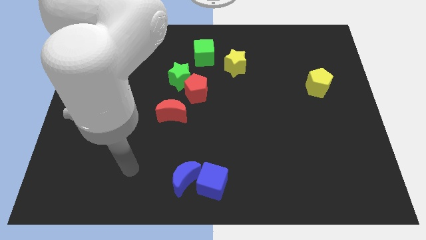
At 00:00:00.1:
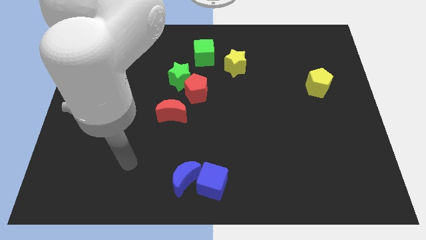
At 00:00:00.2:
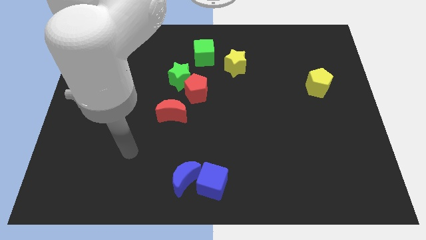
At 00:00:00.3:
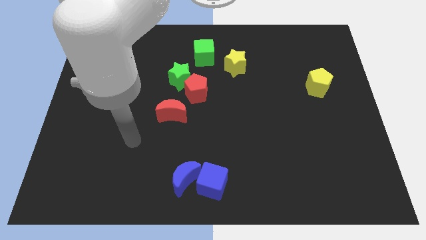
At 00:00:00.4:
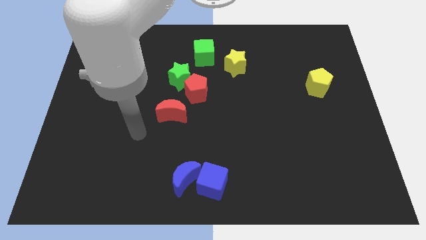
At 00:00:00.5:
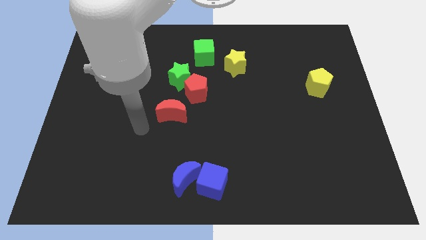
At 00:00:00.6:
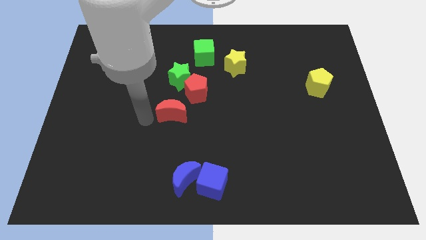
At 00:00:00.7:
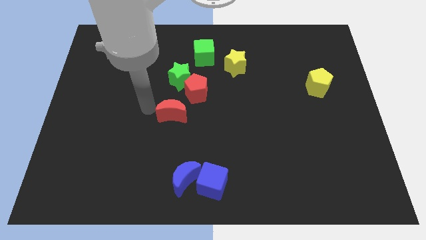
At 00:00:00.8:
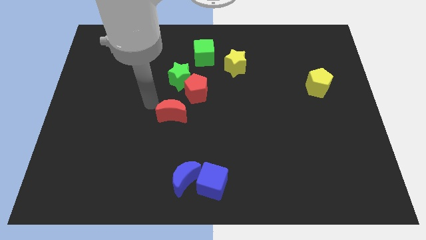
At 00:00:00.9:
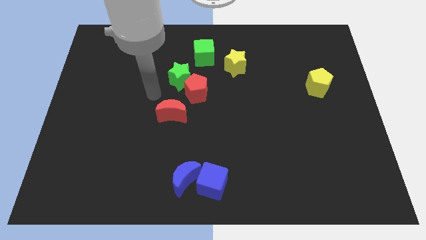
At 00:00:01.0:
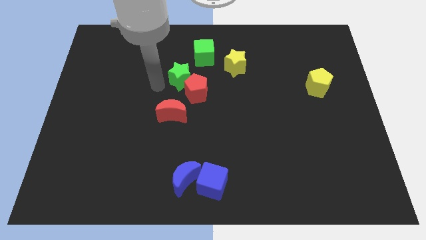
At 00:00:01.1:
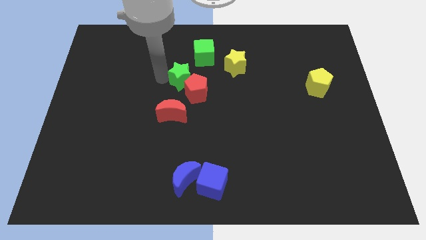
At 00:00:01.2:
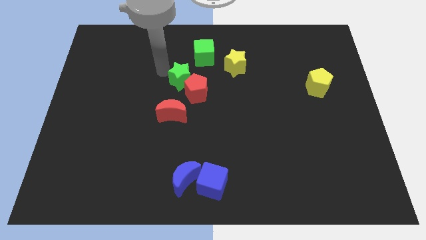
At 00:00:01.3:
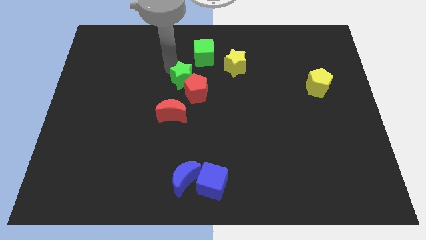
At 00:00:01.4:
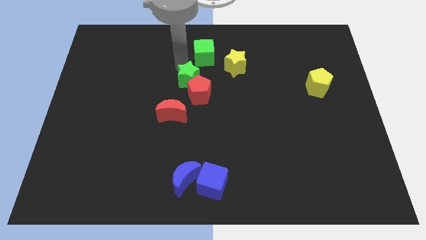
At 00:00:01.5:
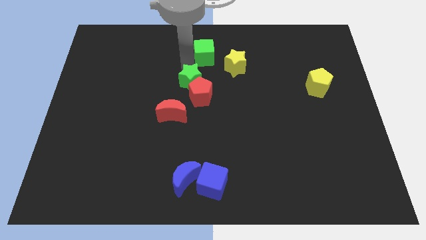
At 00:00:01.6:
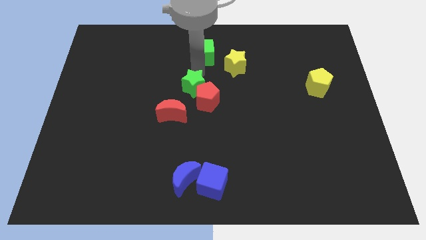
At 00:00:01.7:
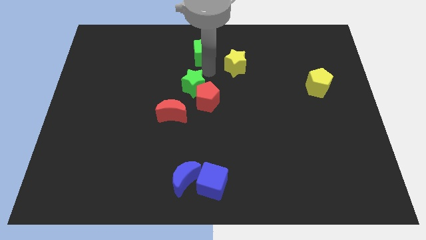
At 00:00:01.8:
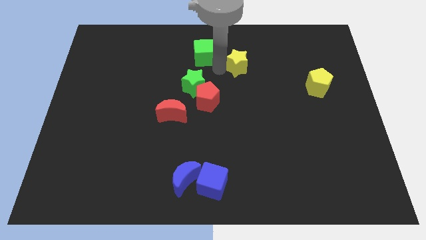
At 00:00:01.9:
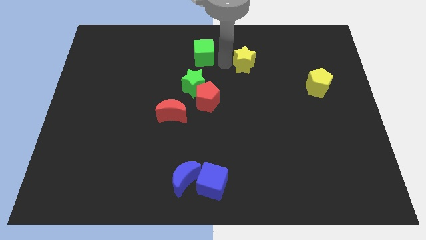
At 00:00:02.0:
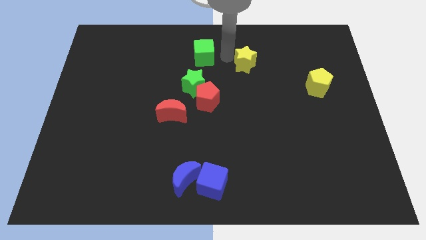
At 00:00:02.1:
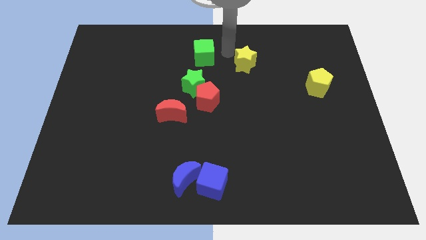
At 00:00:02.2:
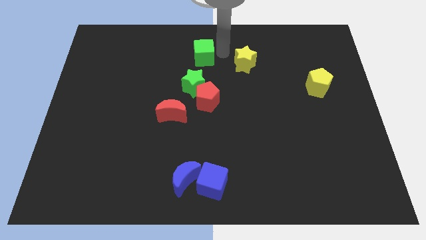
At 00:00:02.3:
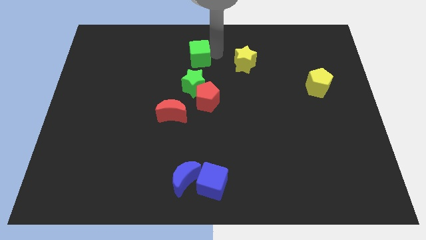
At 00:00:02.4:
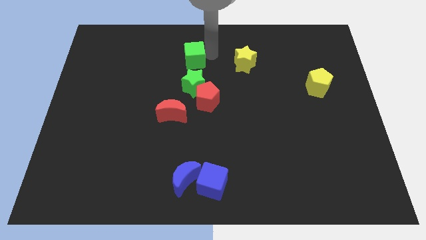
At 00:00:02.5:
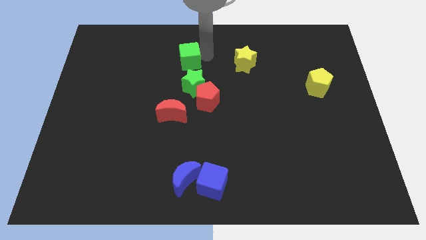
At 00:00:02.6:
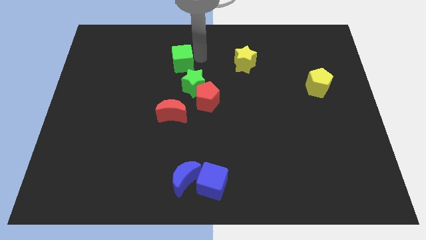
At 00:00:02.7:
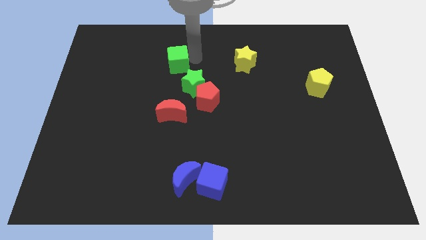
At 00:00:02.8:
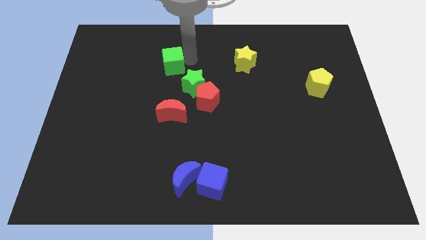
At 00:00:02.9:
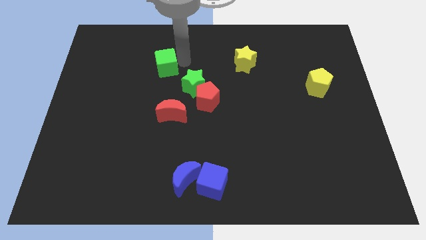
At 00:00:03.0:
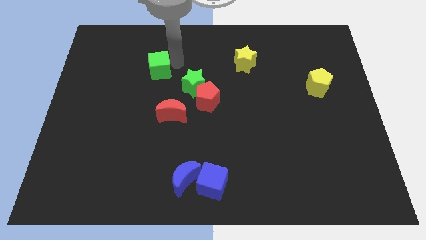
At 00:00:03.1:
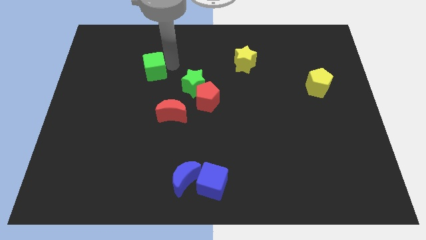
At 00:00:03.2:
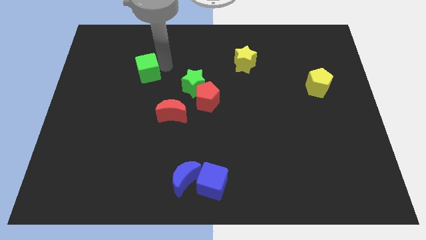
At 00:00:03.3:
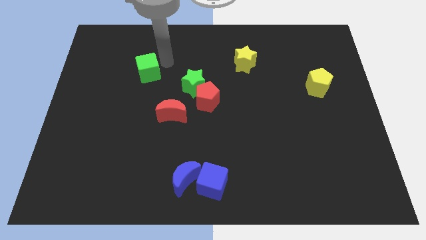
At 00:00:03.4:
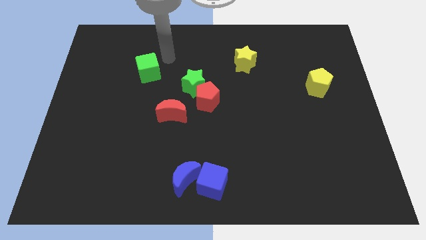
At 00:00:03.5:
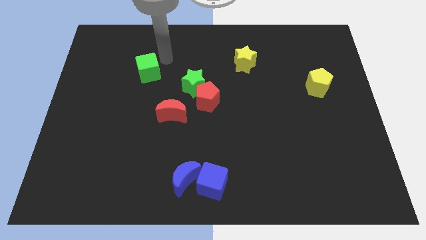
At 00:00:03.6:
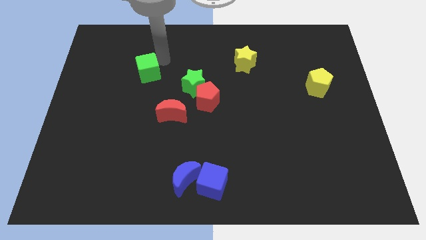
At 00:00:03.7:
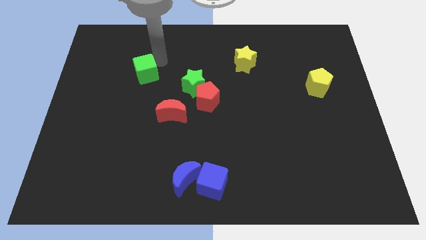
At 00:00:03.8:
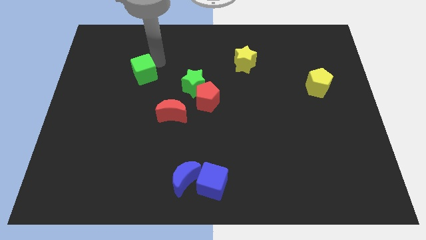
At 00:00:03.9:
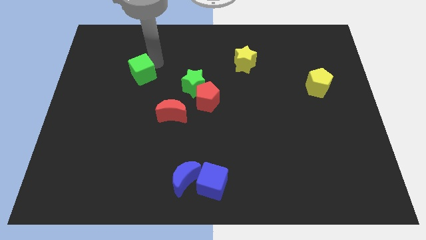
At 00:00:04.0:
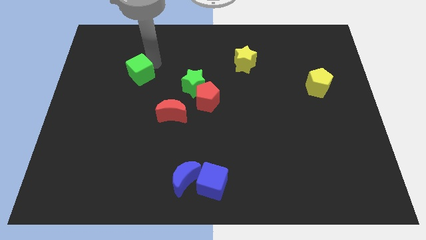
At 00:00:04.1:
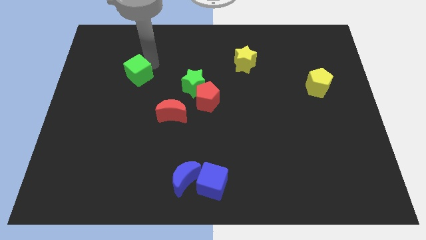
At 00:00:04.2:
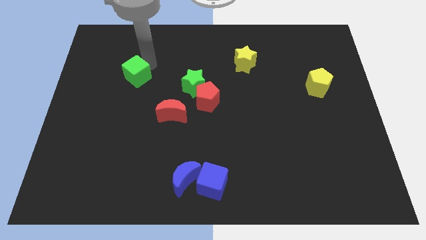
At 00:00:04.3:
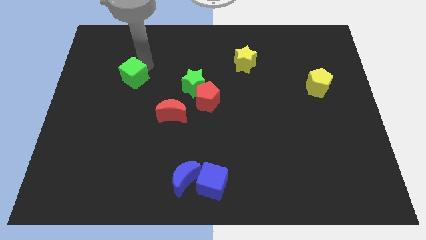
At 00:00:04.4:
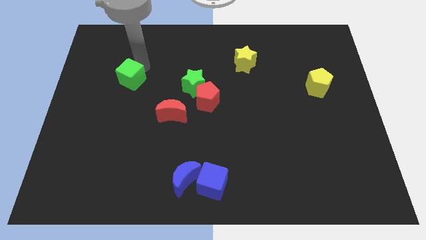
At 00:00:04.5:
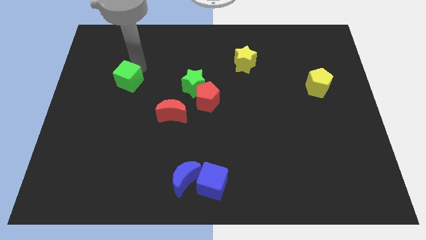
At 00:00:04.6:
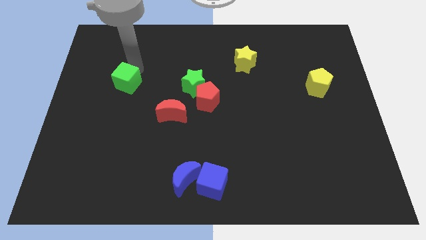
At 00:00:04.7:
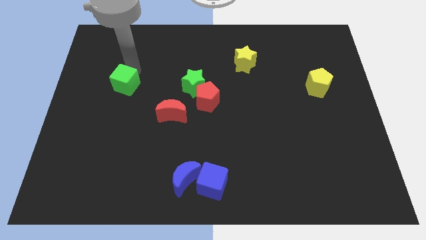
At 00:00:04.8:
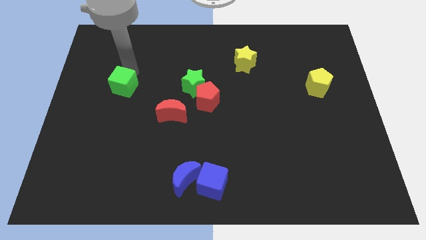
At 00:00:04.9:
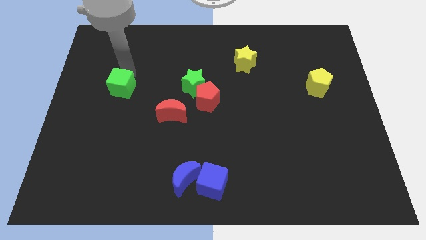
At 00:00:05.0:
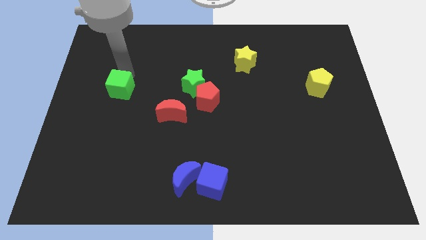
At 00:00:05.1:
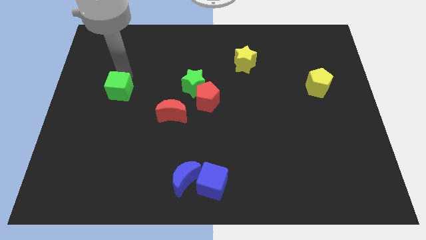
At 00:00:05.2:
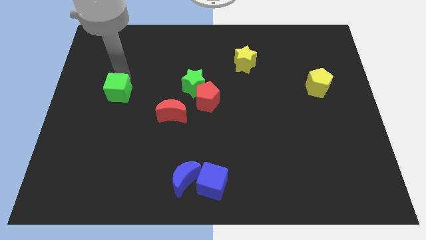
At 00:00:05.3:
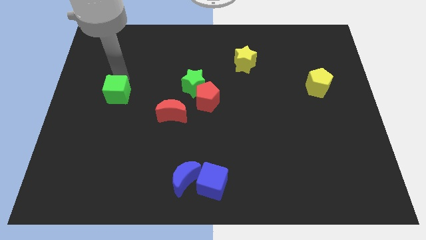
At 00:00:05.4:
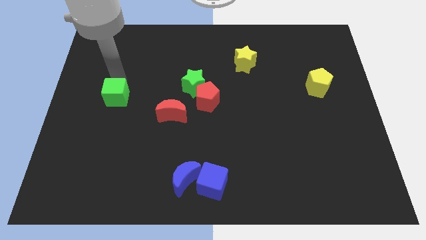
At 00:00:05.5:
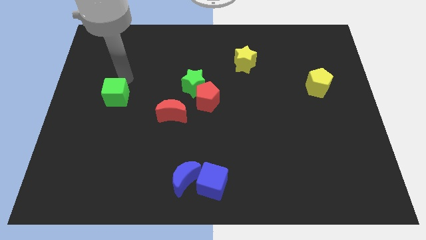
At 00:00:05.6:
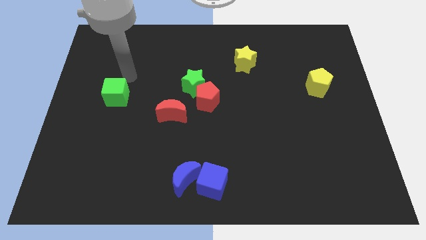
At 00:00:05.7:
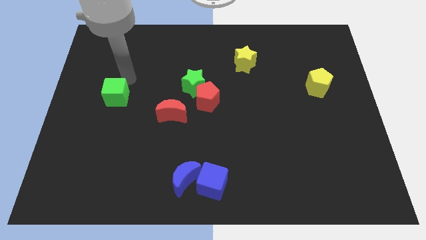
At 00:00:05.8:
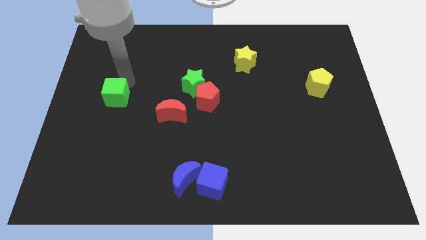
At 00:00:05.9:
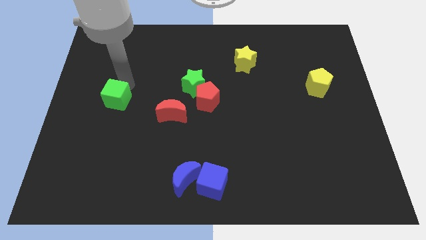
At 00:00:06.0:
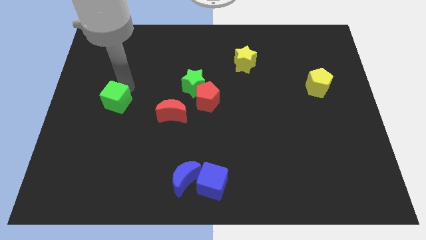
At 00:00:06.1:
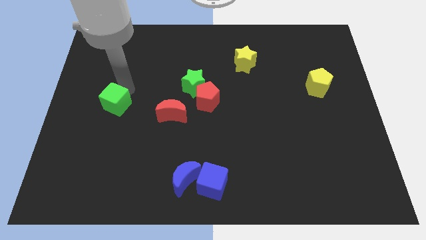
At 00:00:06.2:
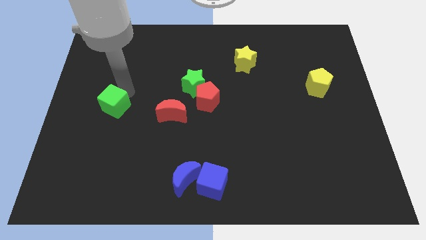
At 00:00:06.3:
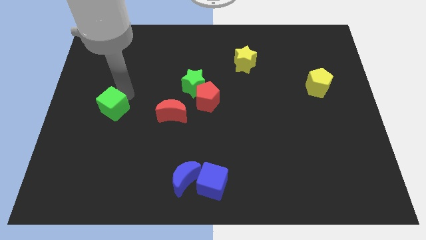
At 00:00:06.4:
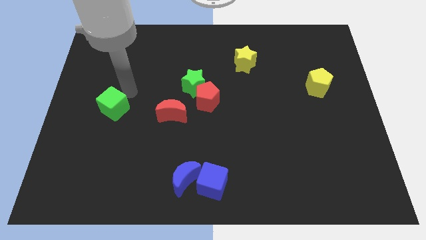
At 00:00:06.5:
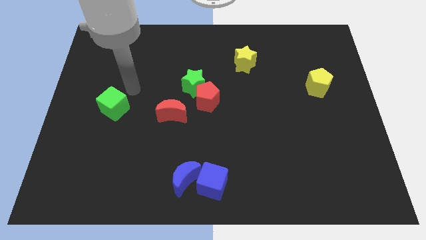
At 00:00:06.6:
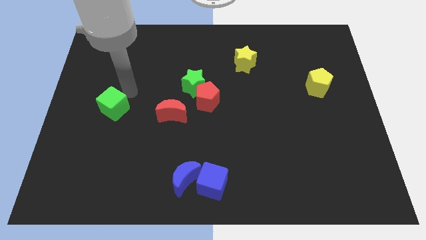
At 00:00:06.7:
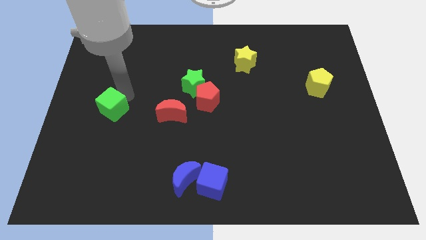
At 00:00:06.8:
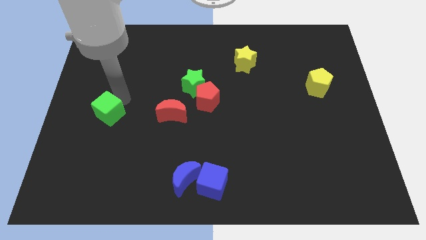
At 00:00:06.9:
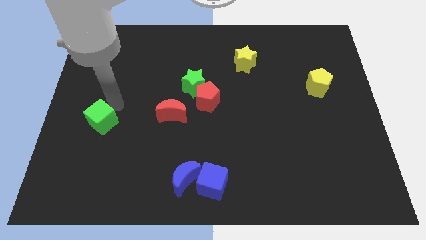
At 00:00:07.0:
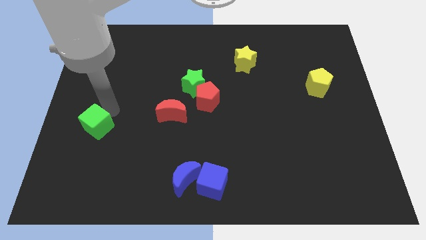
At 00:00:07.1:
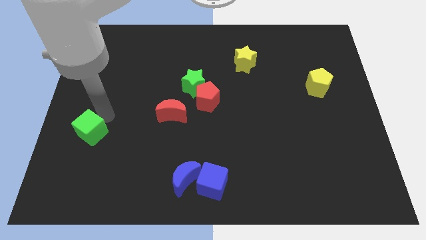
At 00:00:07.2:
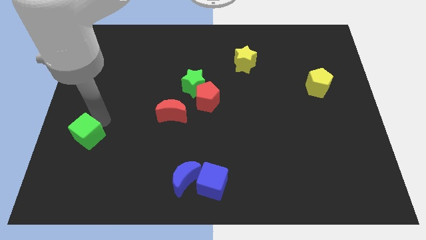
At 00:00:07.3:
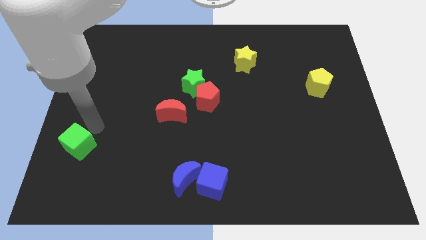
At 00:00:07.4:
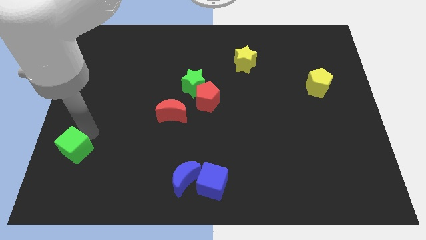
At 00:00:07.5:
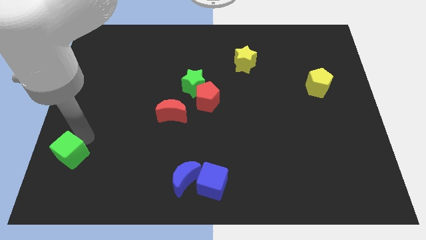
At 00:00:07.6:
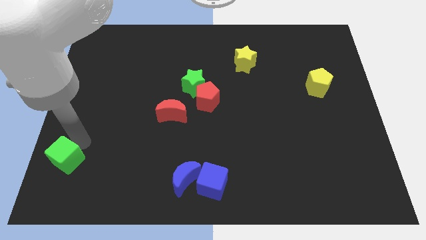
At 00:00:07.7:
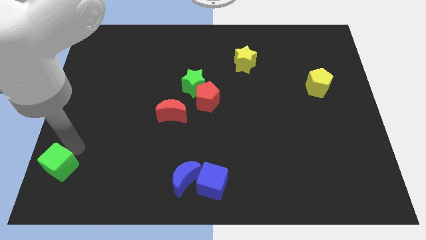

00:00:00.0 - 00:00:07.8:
move the green cube to the bottom left
